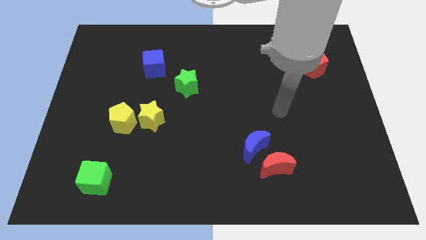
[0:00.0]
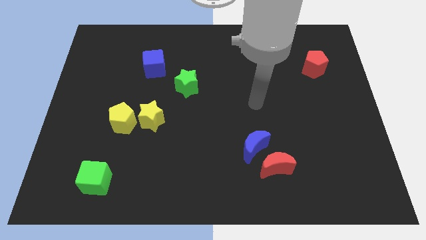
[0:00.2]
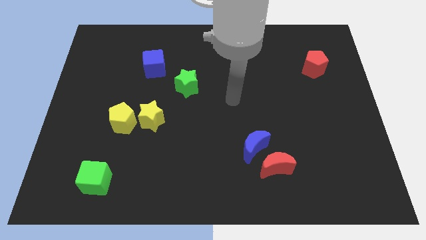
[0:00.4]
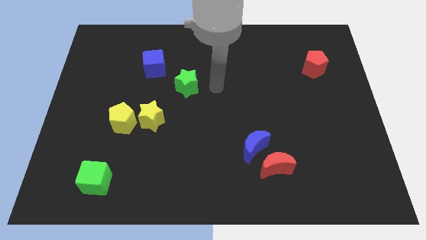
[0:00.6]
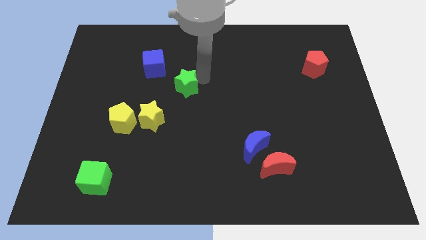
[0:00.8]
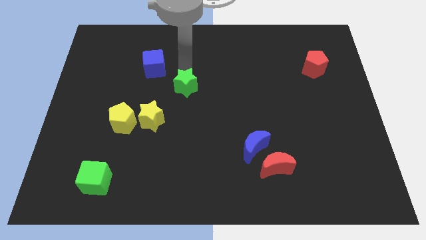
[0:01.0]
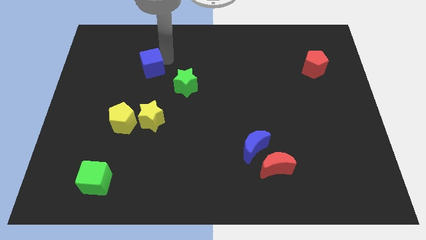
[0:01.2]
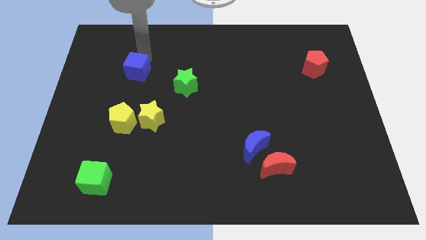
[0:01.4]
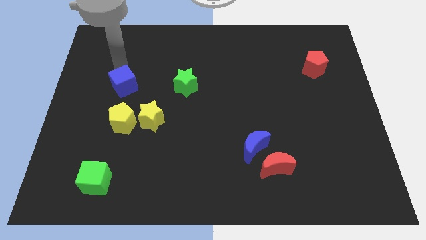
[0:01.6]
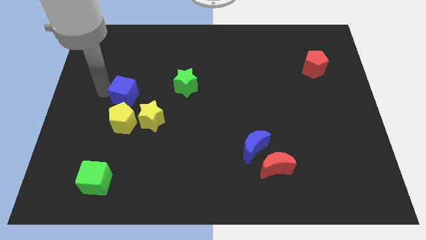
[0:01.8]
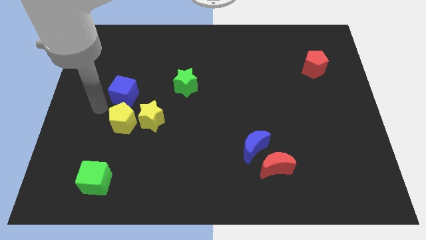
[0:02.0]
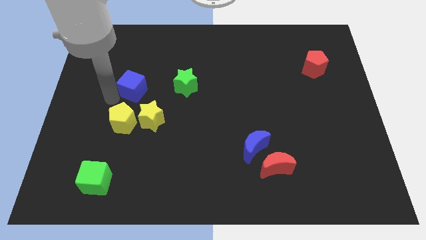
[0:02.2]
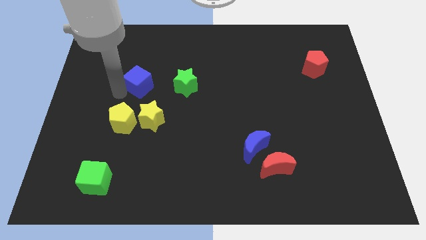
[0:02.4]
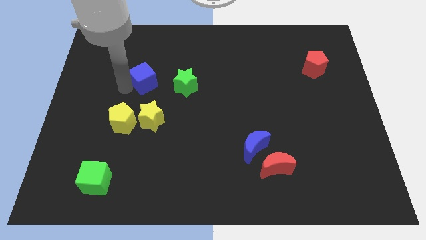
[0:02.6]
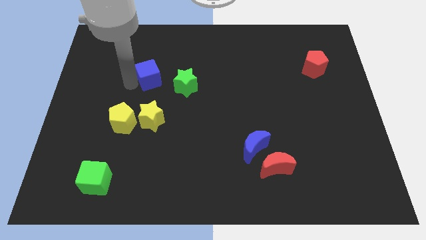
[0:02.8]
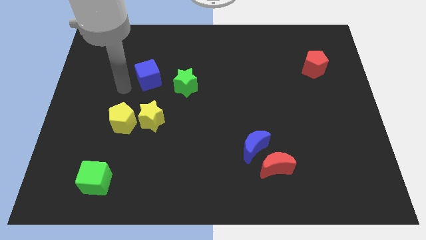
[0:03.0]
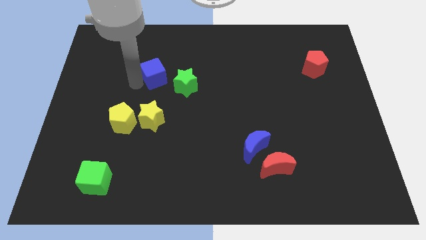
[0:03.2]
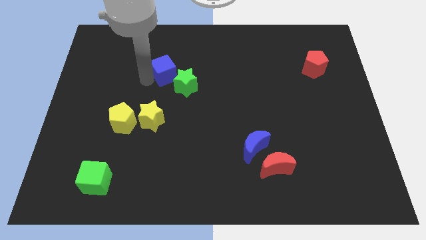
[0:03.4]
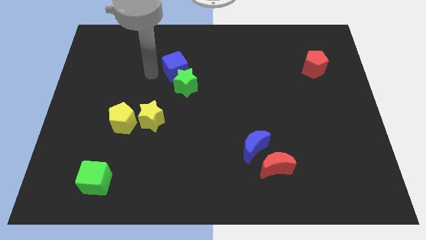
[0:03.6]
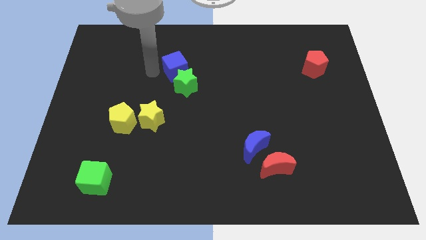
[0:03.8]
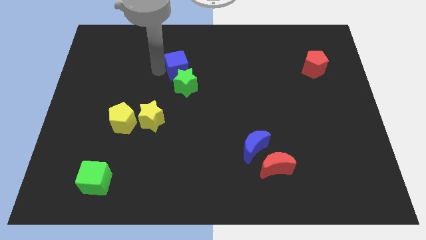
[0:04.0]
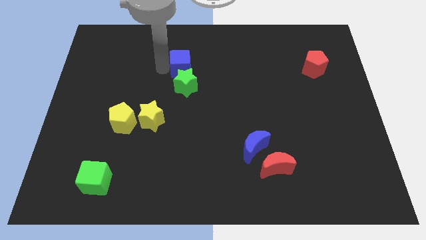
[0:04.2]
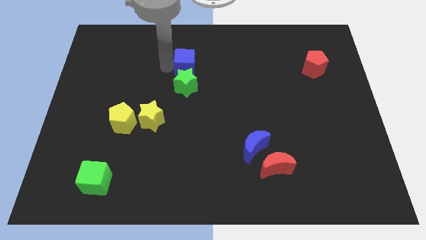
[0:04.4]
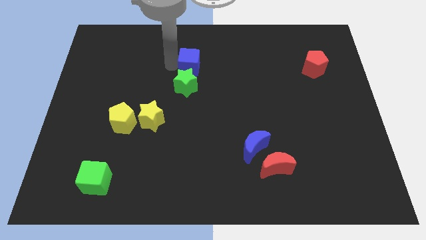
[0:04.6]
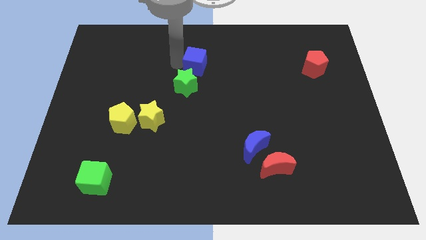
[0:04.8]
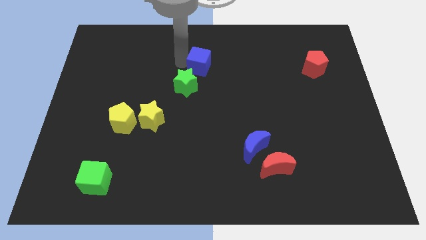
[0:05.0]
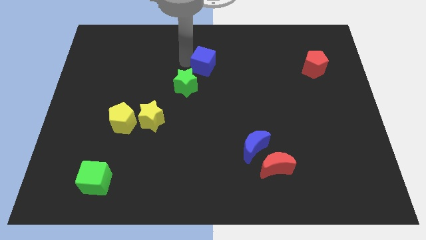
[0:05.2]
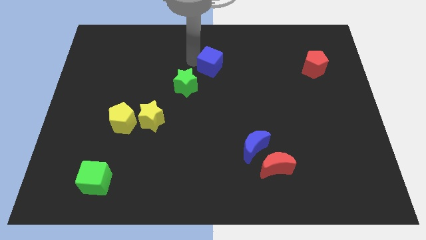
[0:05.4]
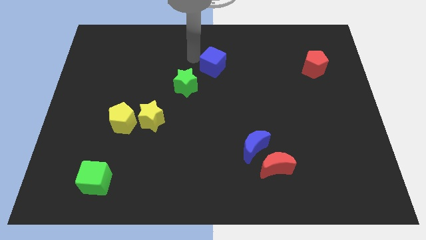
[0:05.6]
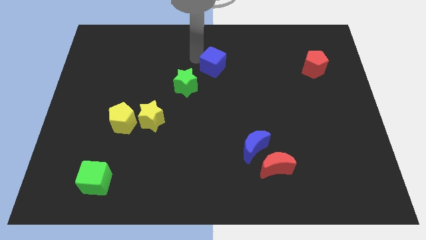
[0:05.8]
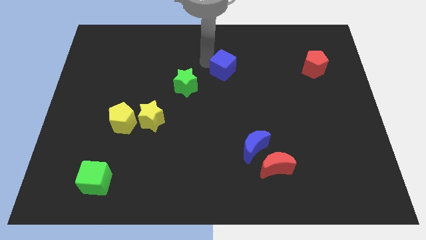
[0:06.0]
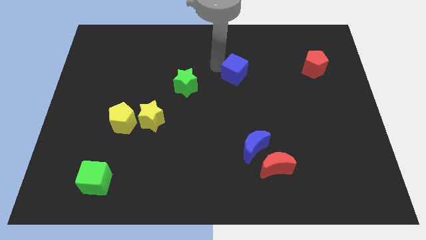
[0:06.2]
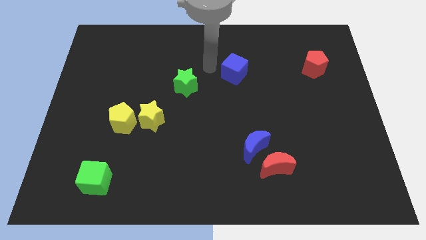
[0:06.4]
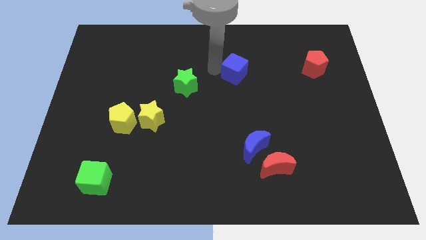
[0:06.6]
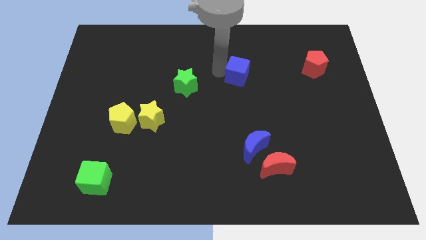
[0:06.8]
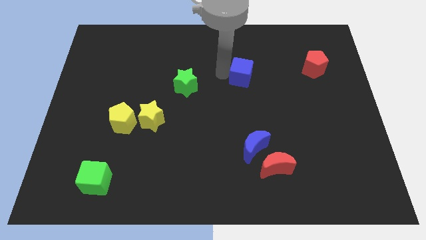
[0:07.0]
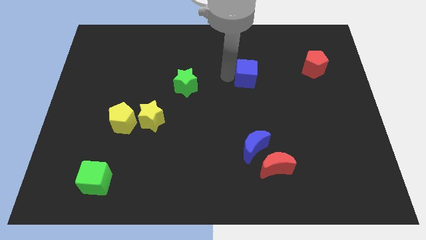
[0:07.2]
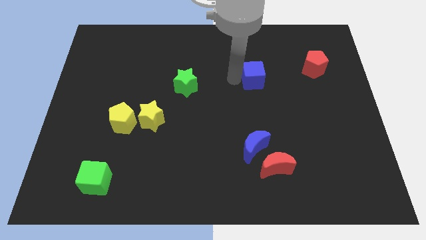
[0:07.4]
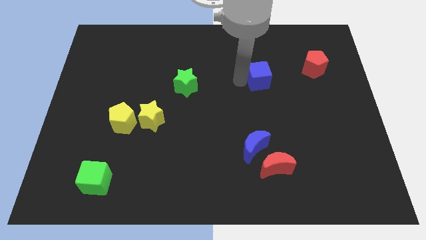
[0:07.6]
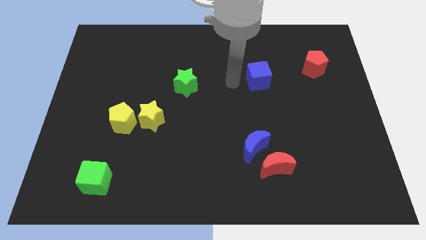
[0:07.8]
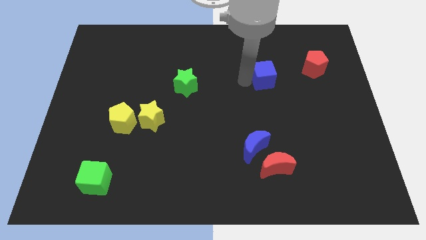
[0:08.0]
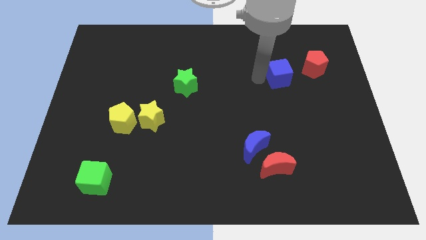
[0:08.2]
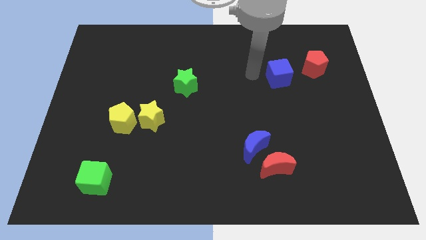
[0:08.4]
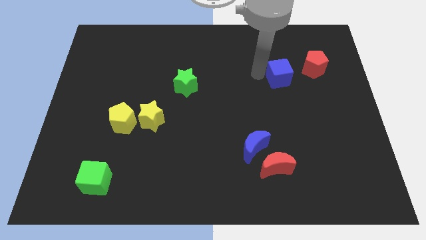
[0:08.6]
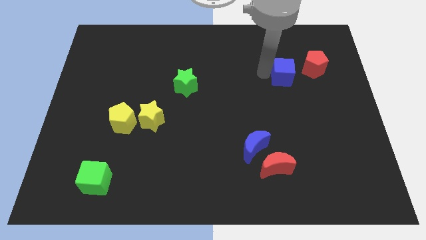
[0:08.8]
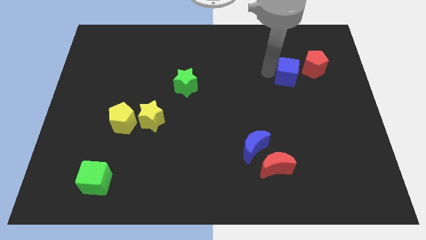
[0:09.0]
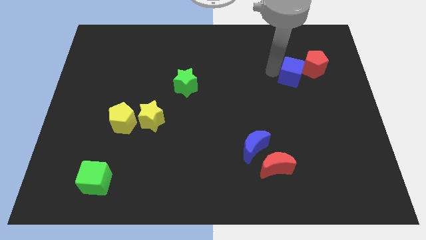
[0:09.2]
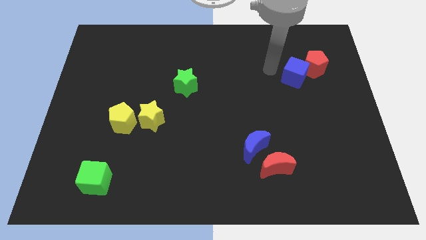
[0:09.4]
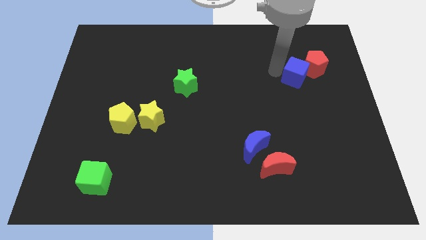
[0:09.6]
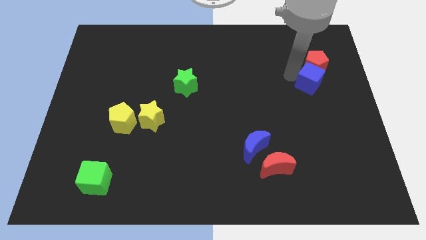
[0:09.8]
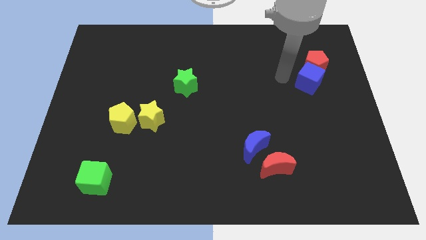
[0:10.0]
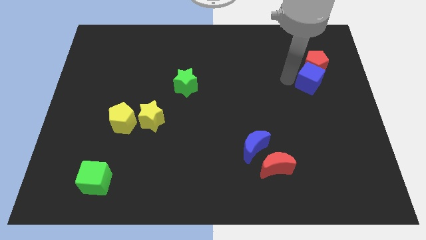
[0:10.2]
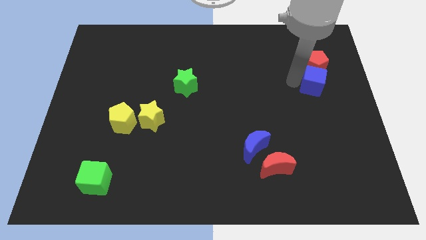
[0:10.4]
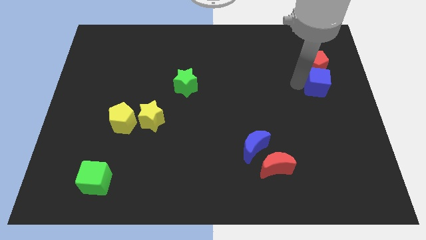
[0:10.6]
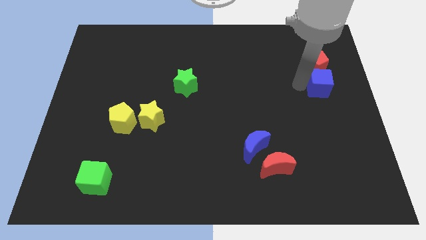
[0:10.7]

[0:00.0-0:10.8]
put the blue cube to the right side of the board

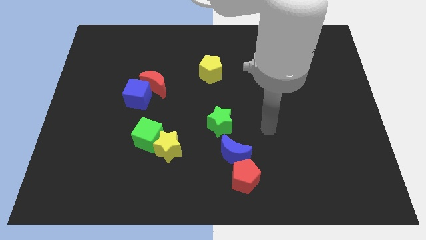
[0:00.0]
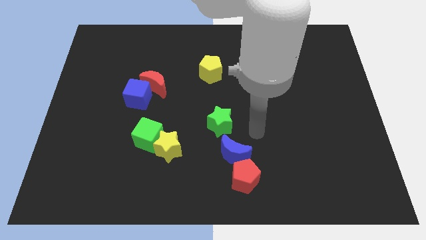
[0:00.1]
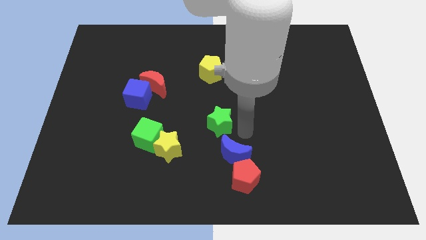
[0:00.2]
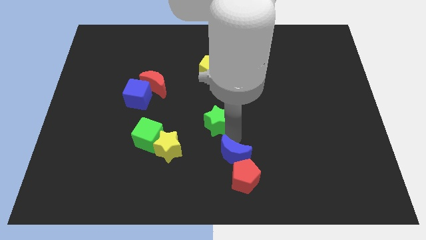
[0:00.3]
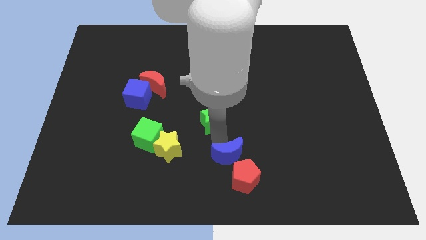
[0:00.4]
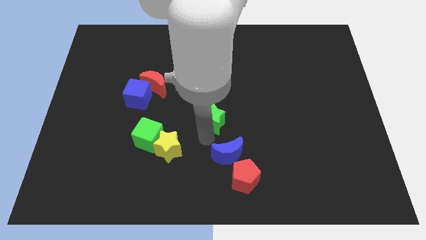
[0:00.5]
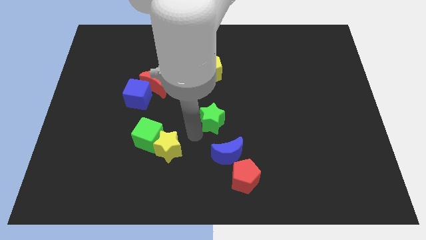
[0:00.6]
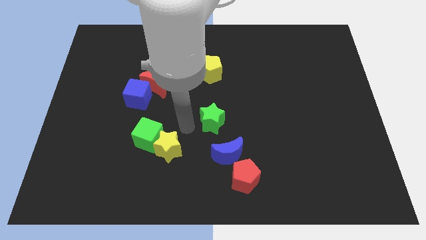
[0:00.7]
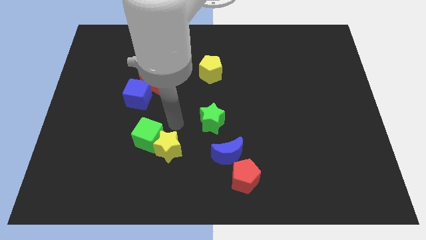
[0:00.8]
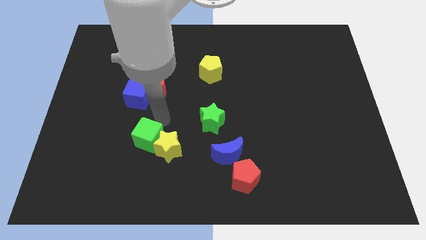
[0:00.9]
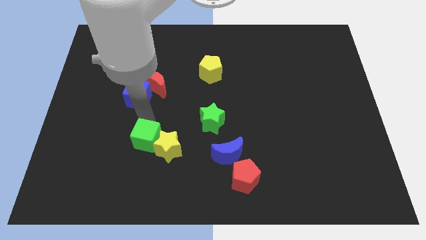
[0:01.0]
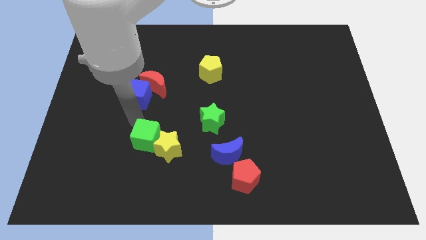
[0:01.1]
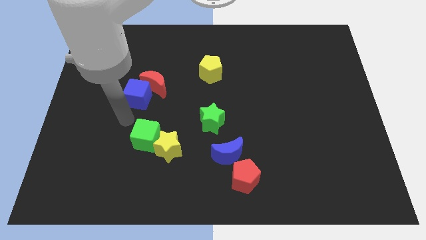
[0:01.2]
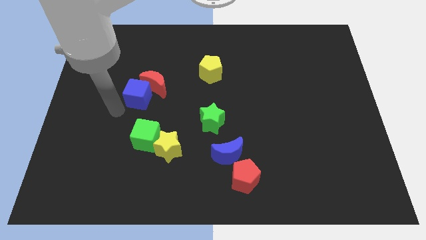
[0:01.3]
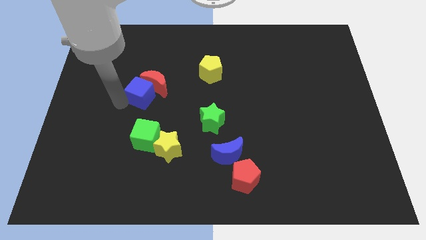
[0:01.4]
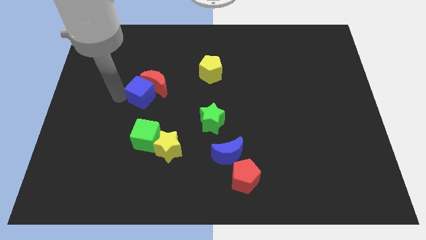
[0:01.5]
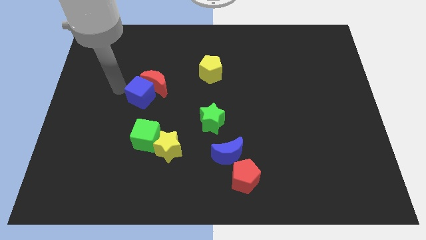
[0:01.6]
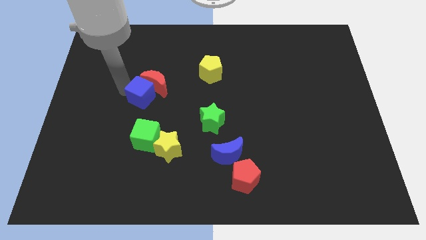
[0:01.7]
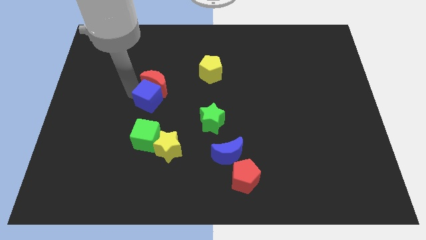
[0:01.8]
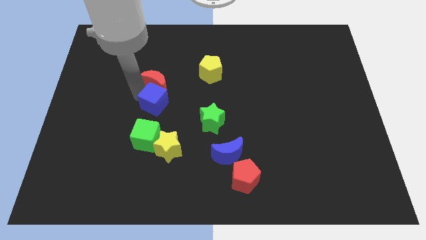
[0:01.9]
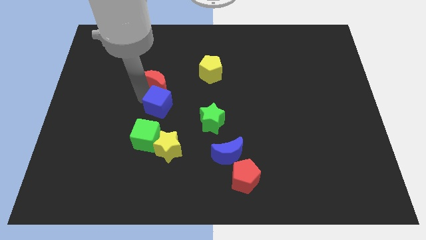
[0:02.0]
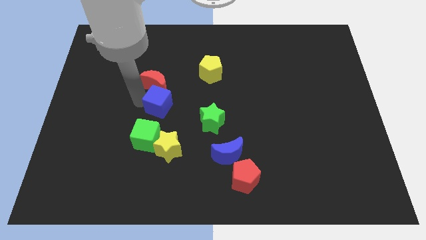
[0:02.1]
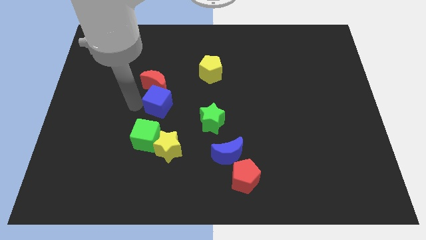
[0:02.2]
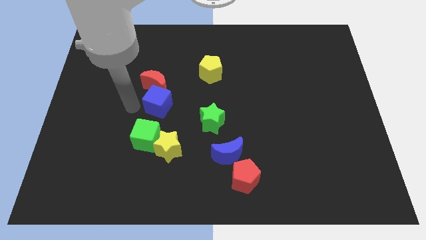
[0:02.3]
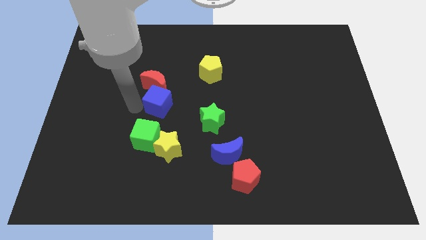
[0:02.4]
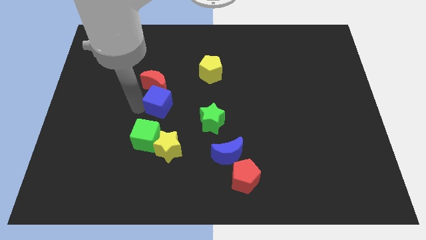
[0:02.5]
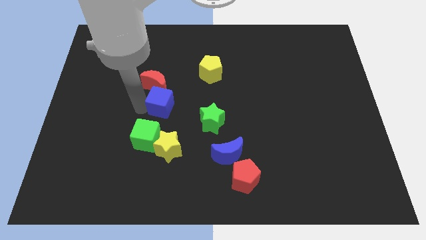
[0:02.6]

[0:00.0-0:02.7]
slide the blue cube to the middle
